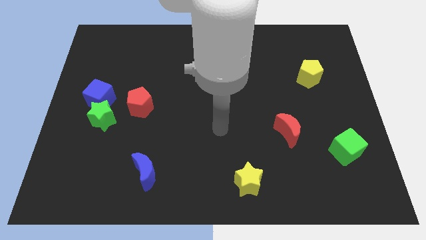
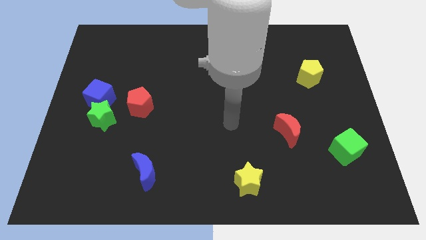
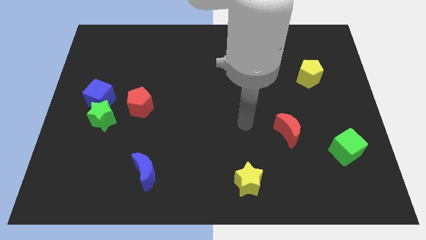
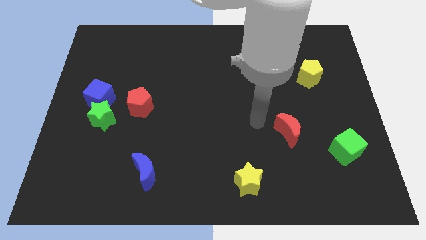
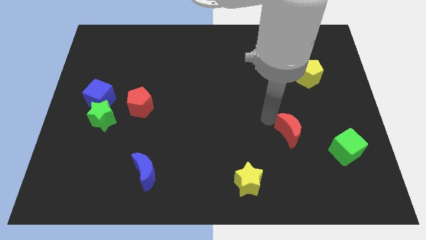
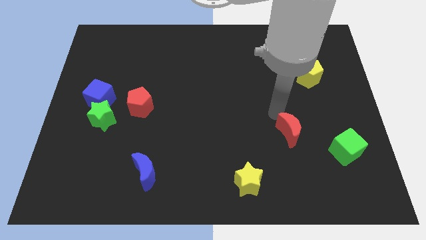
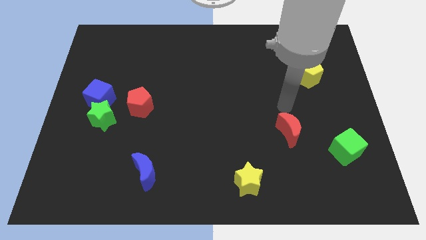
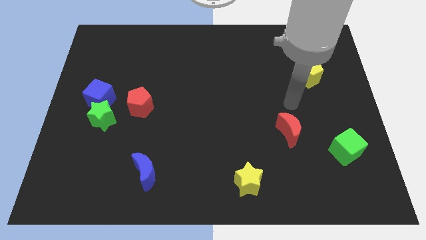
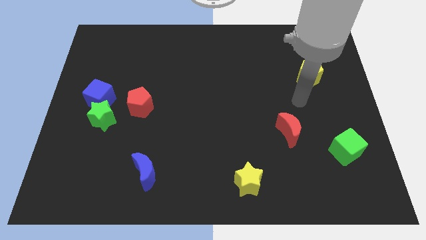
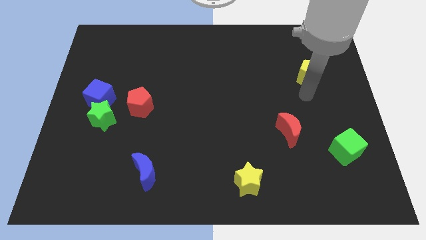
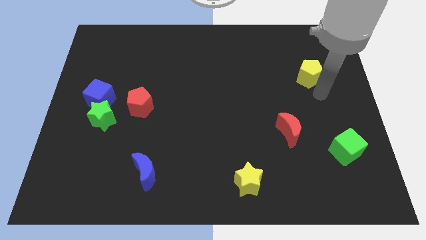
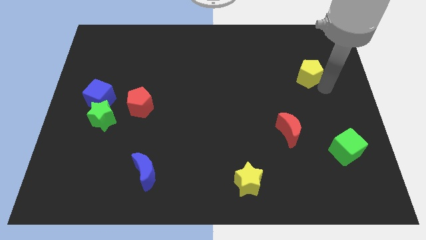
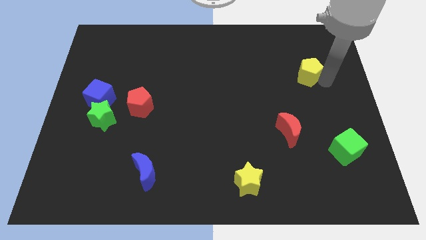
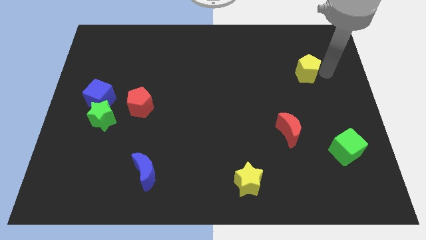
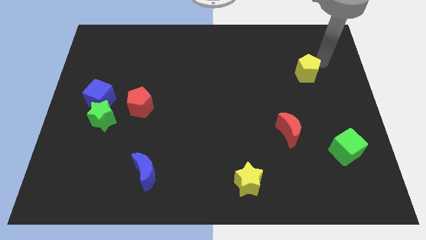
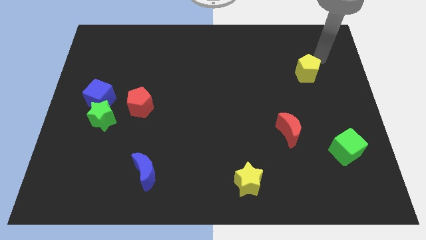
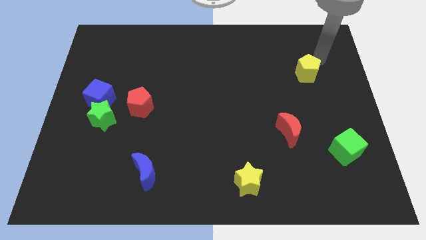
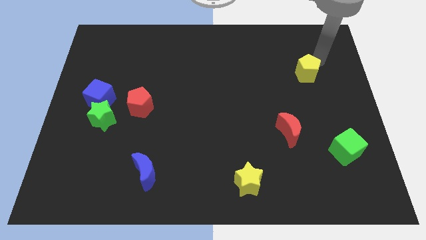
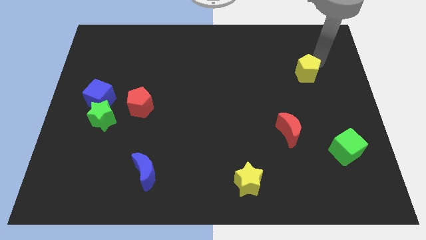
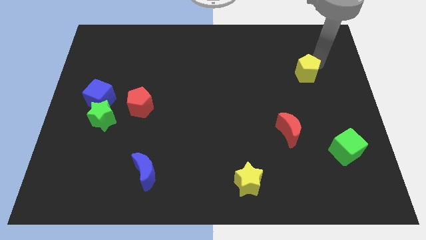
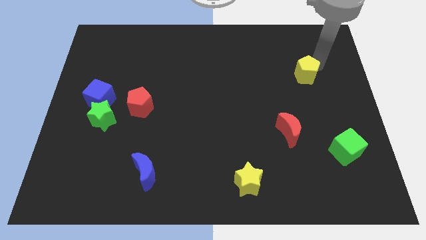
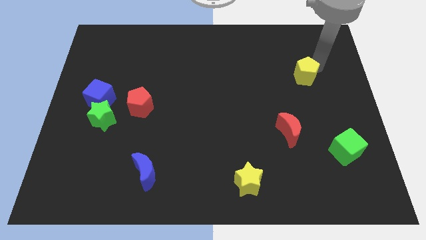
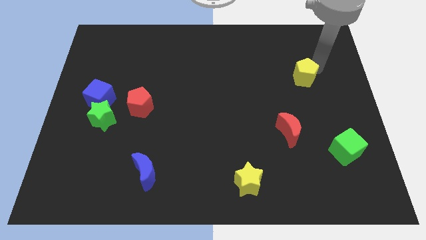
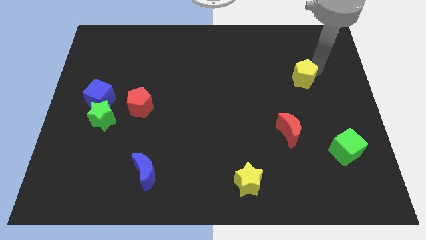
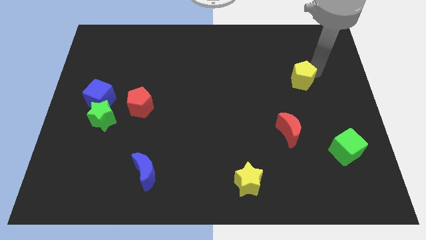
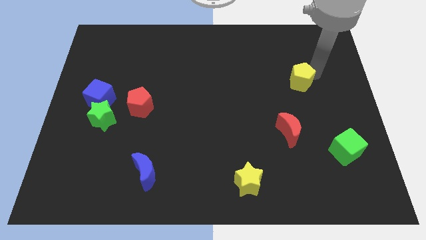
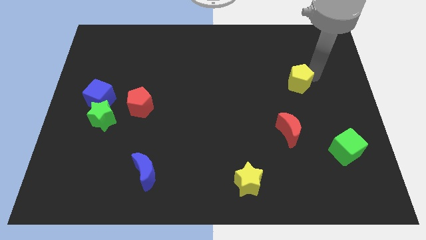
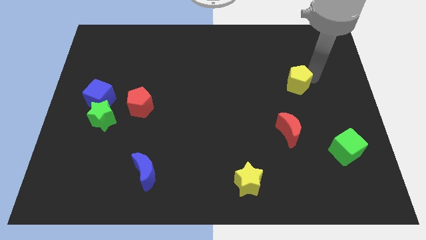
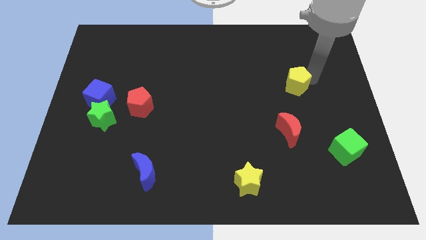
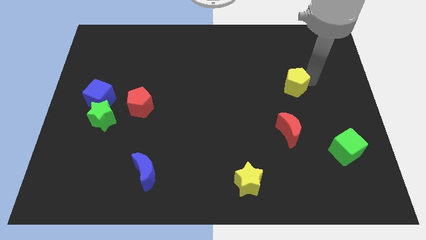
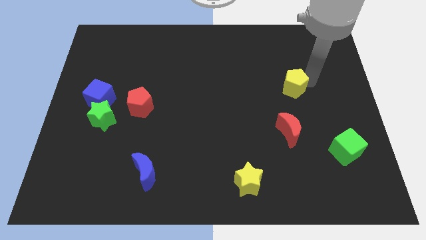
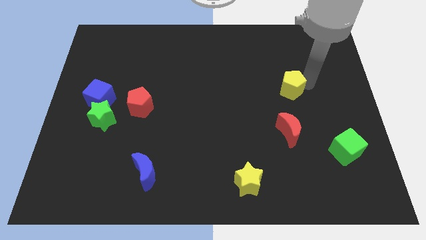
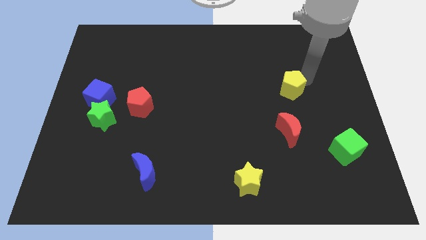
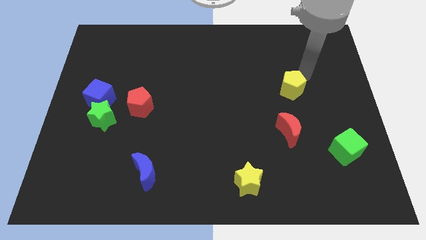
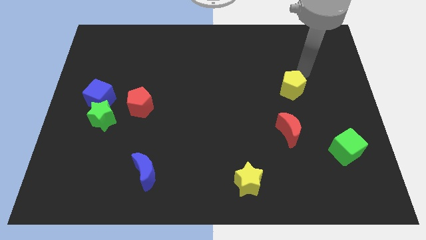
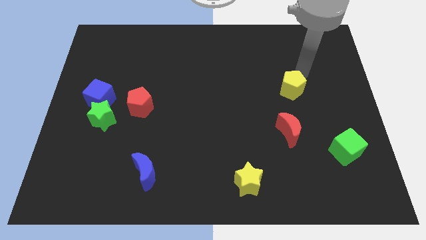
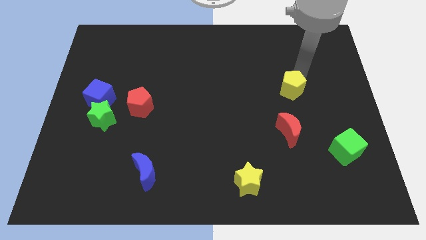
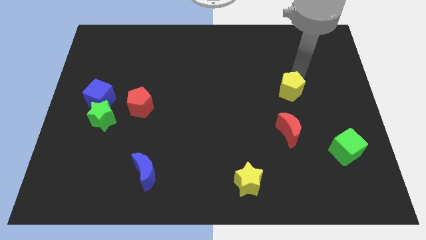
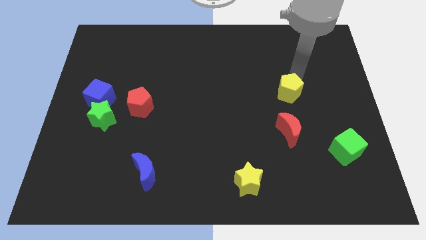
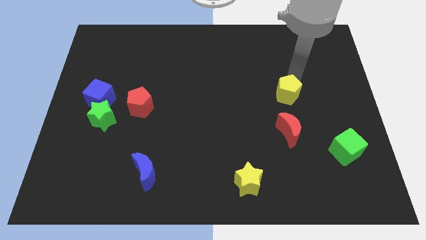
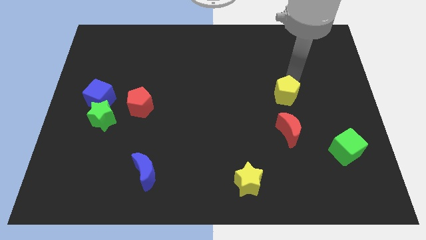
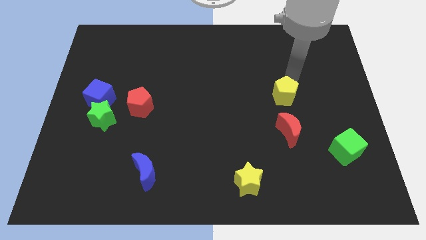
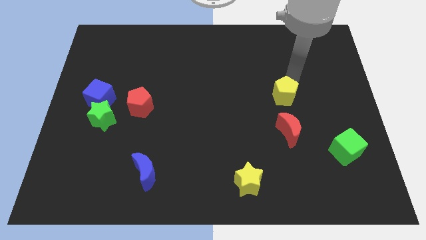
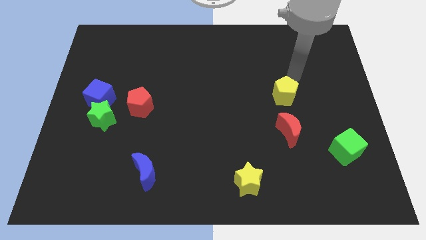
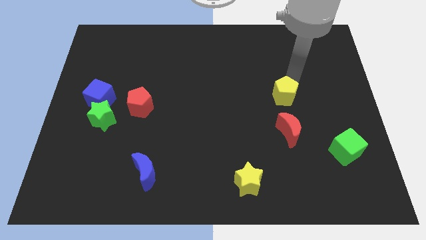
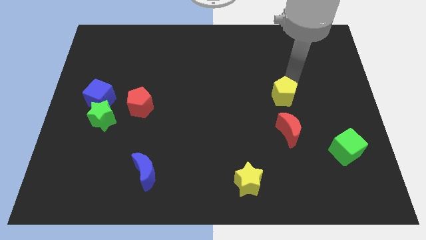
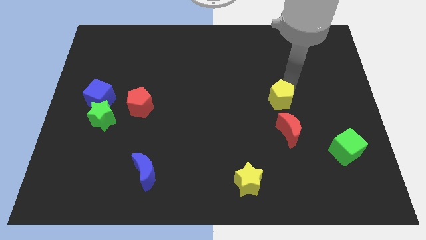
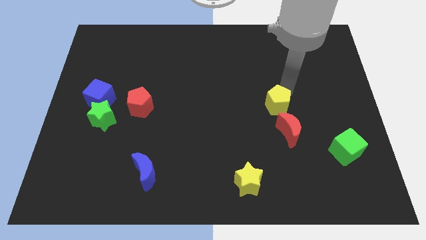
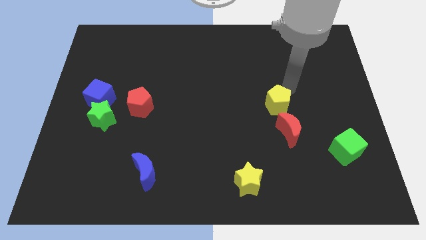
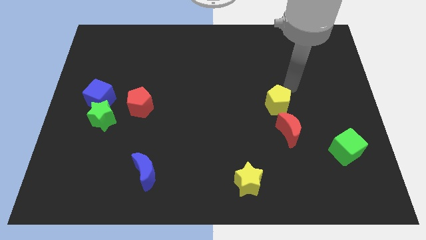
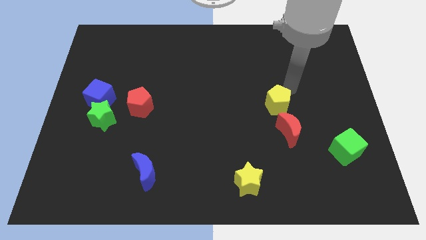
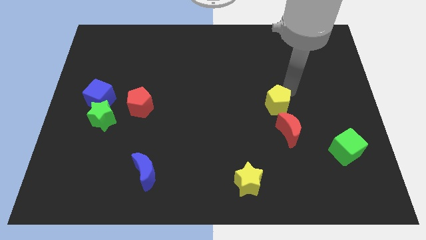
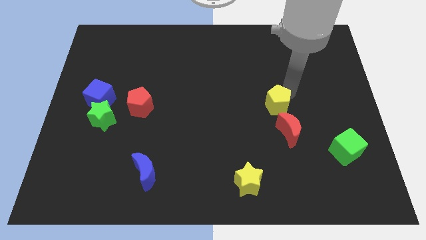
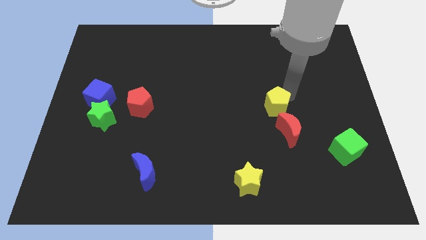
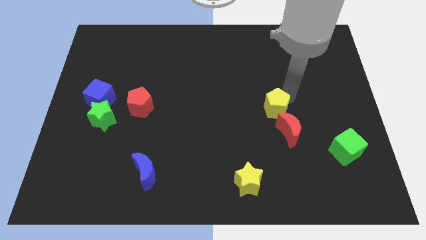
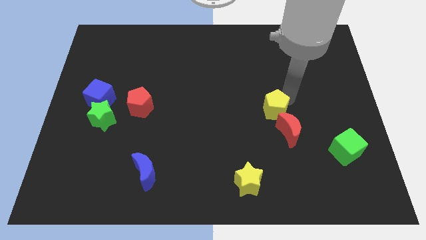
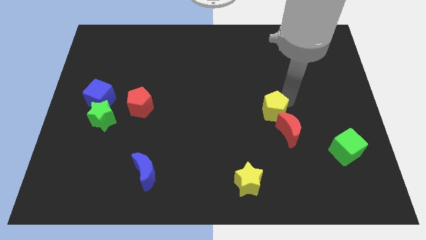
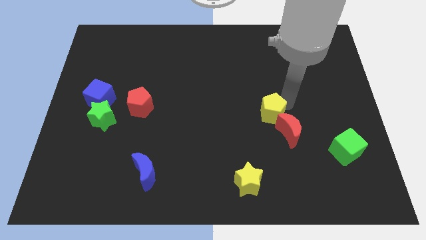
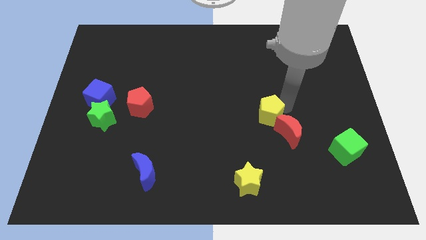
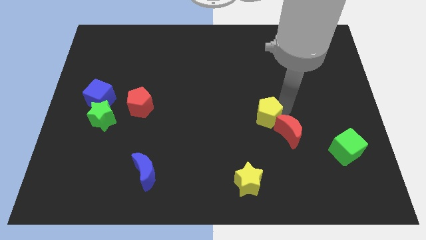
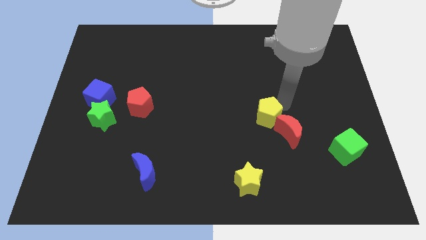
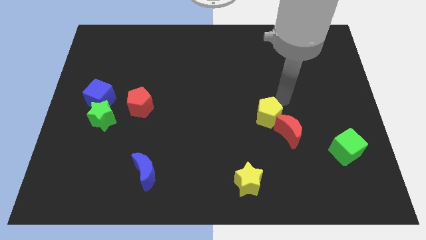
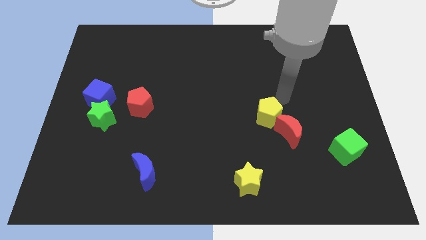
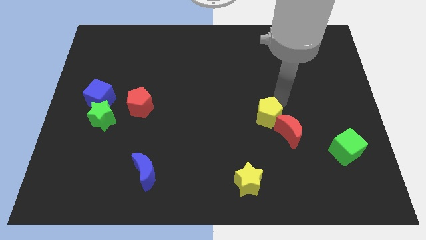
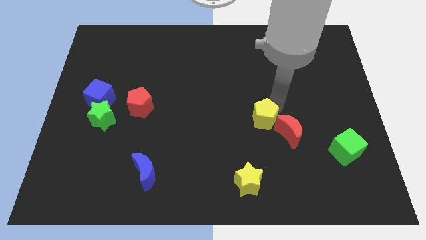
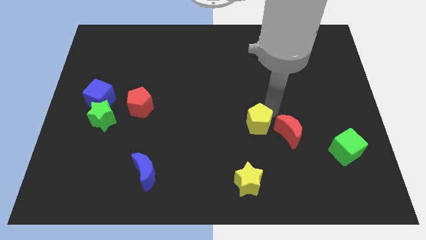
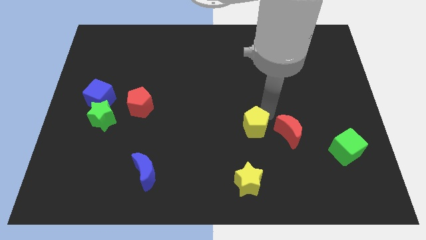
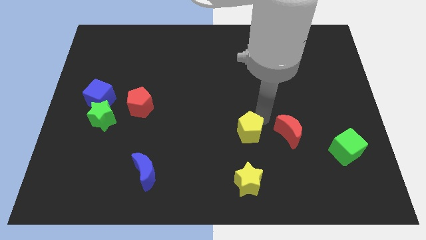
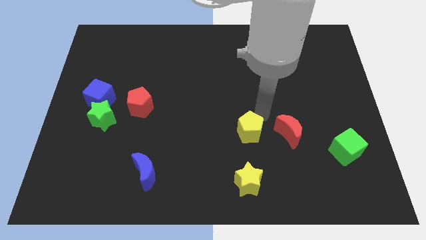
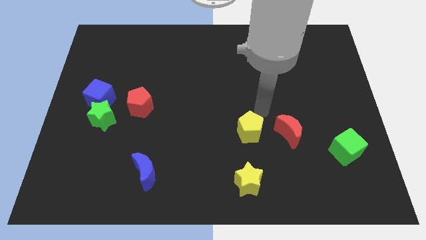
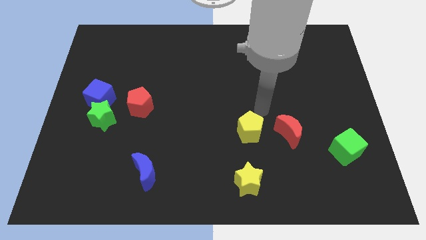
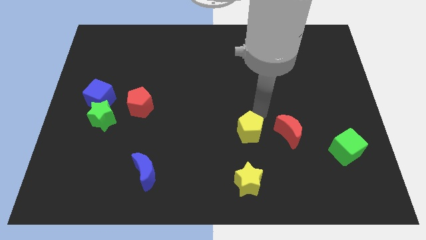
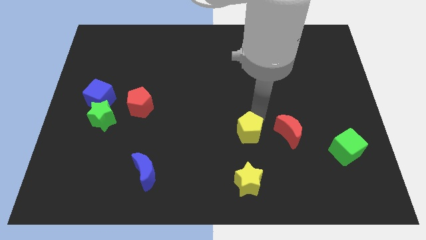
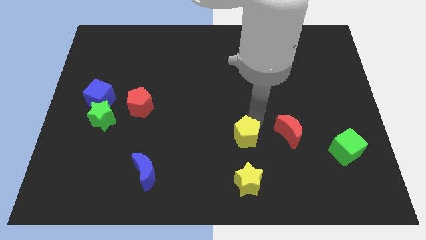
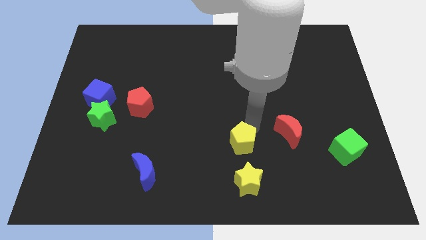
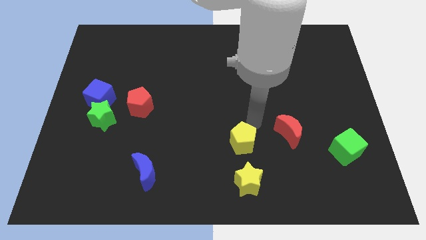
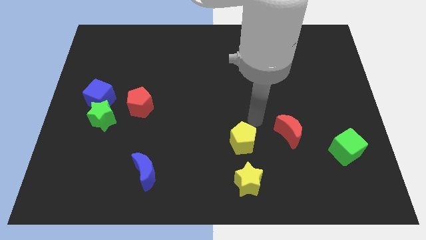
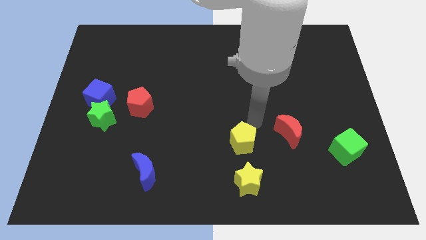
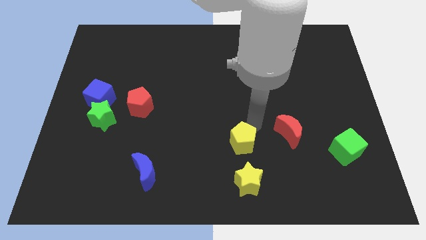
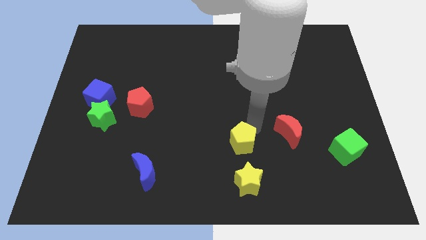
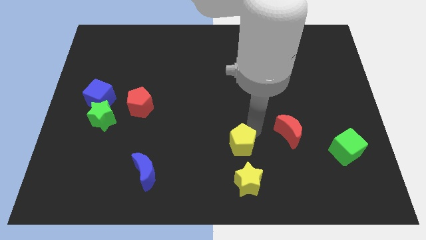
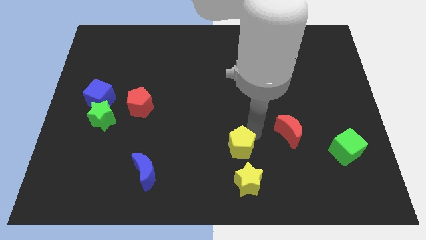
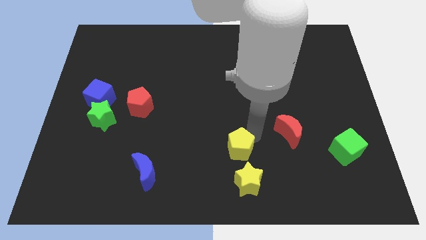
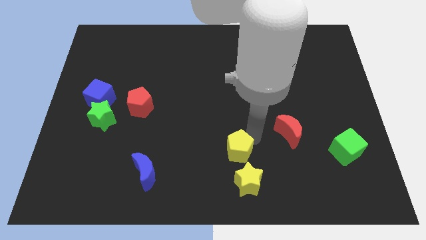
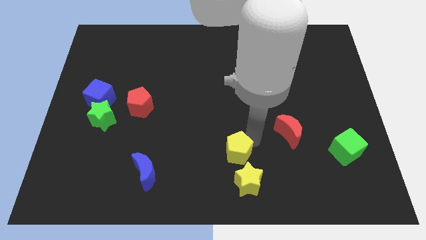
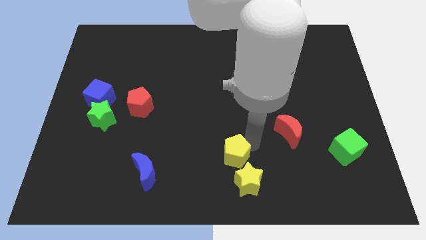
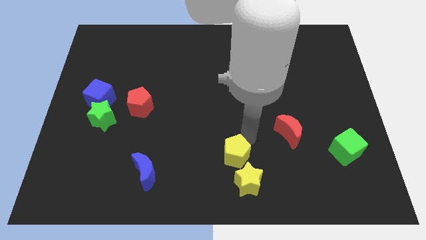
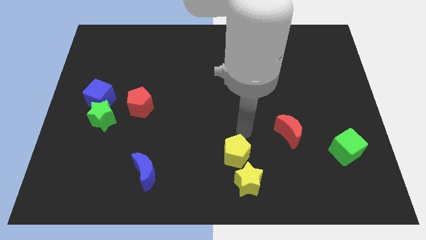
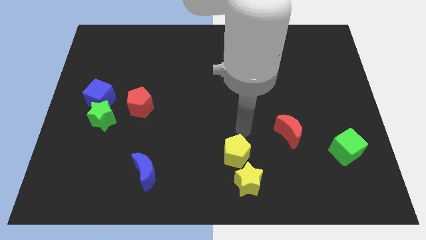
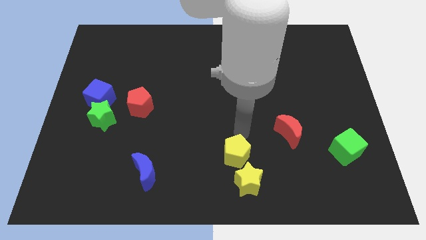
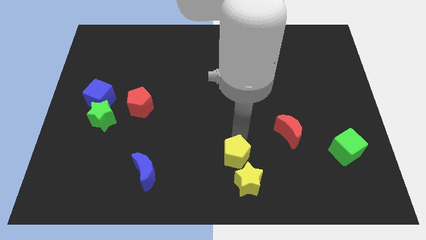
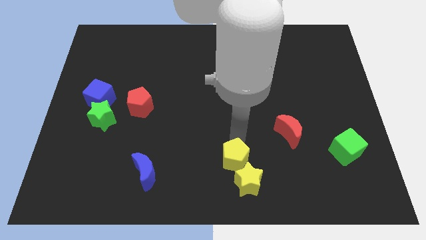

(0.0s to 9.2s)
push the yellow pentagon to the bottom side
